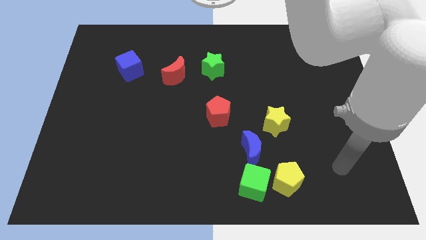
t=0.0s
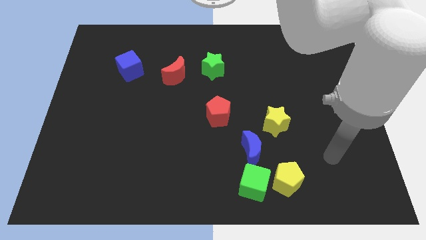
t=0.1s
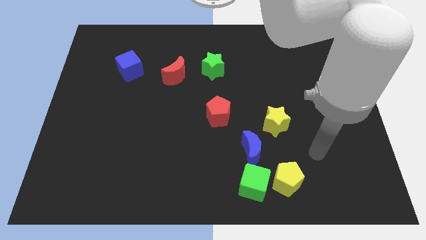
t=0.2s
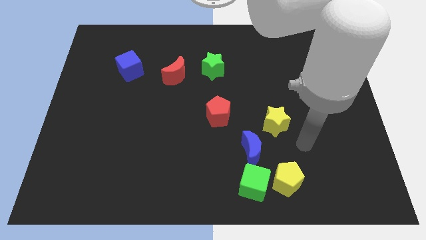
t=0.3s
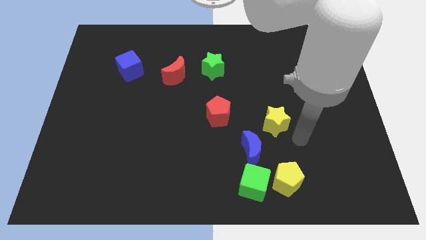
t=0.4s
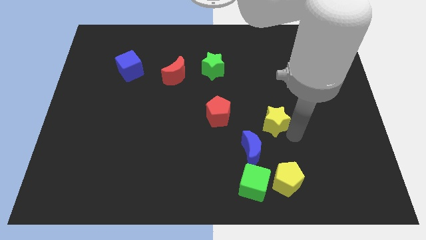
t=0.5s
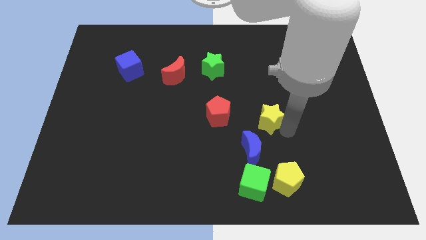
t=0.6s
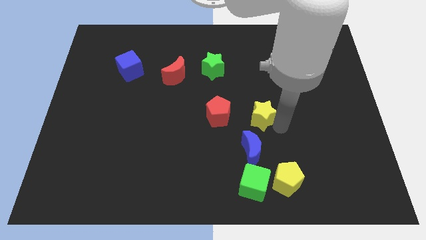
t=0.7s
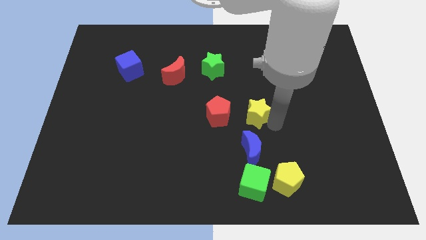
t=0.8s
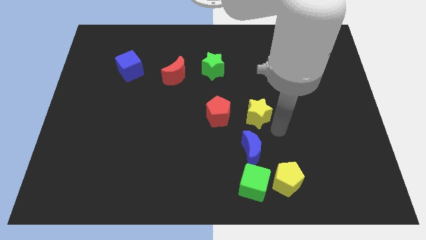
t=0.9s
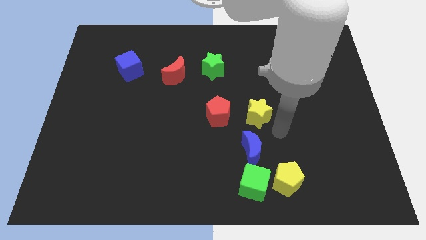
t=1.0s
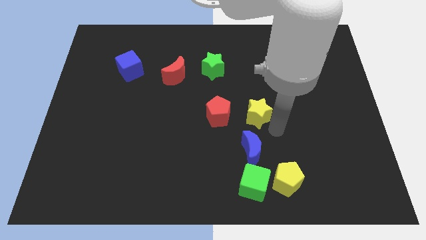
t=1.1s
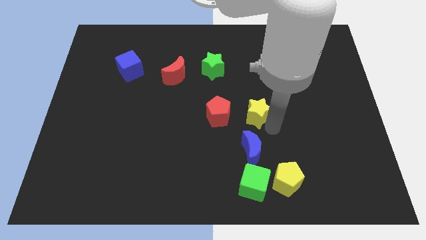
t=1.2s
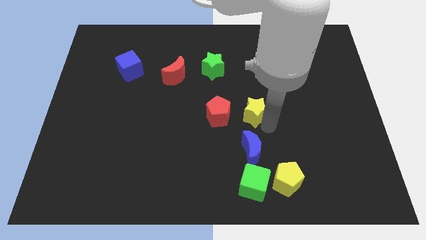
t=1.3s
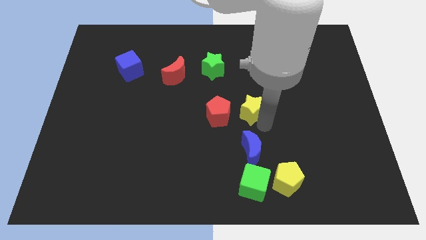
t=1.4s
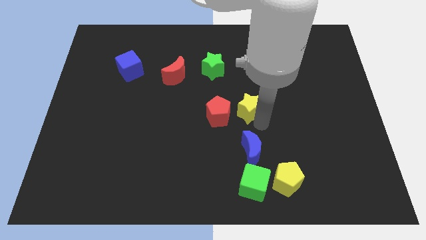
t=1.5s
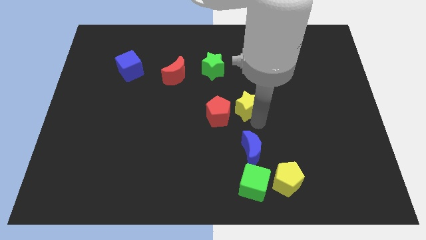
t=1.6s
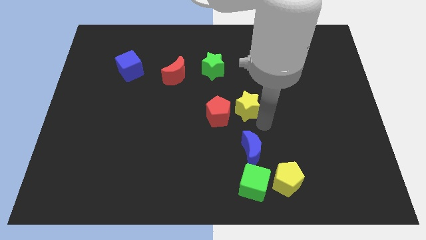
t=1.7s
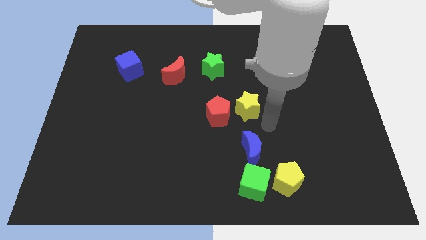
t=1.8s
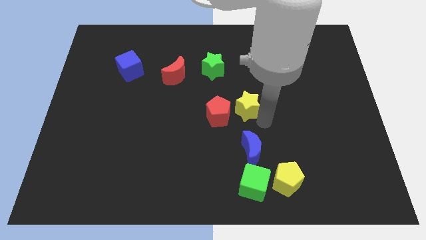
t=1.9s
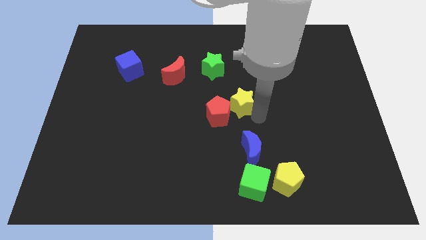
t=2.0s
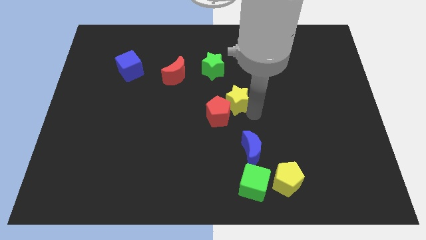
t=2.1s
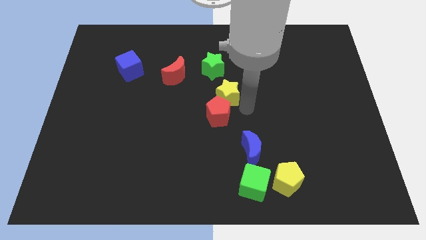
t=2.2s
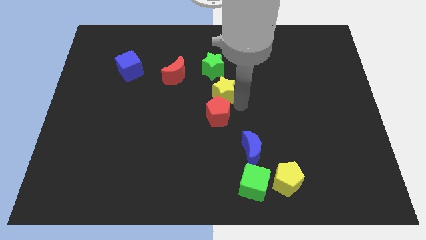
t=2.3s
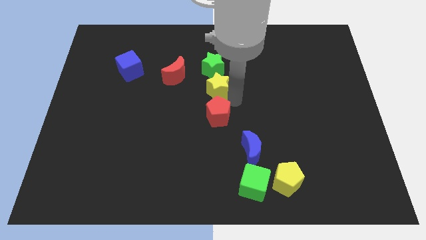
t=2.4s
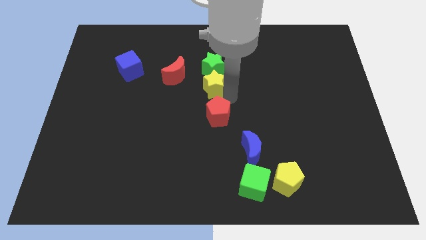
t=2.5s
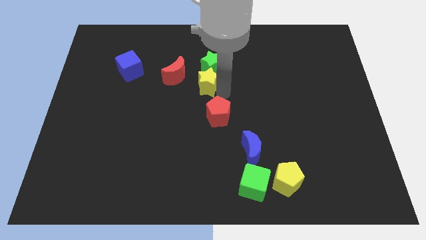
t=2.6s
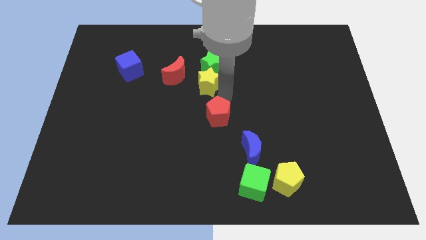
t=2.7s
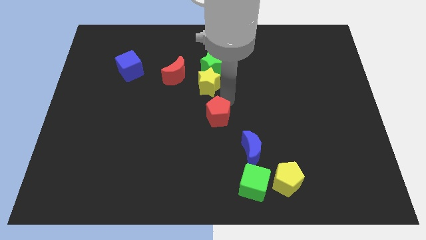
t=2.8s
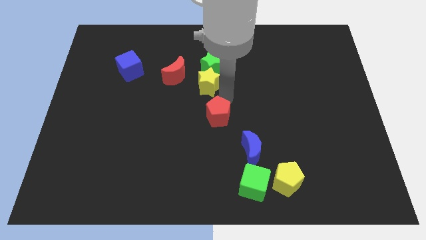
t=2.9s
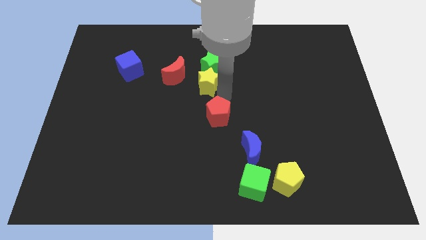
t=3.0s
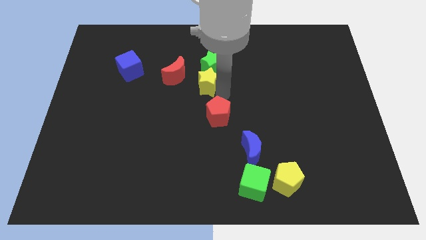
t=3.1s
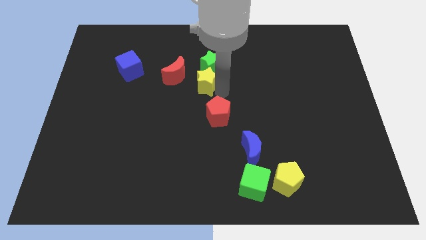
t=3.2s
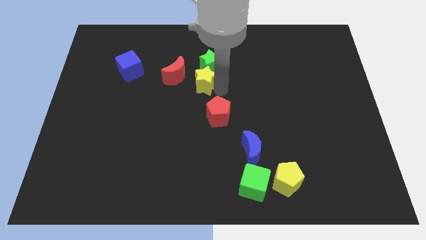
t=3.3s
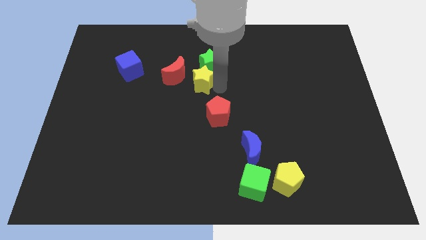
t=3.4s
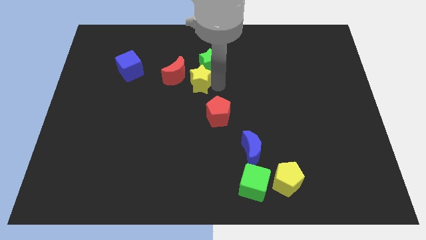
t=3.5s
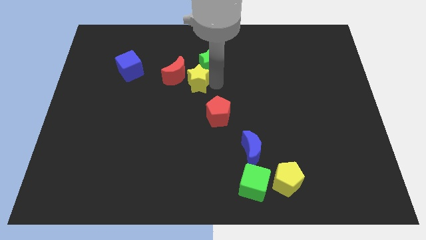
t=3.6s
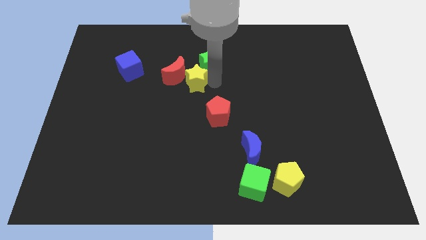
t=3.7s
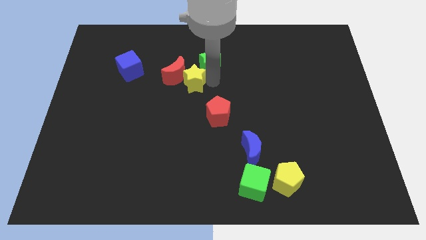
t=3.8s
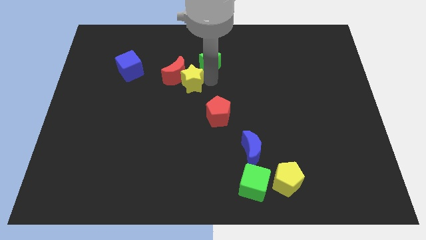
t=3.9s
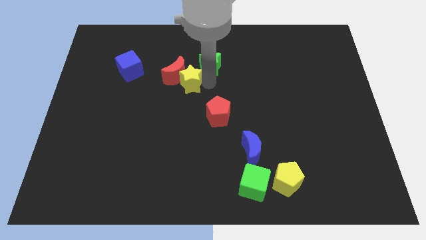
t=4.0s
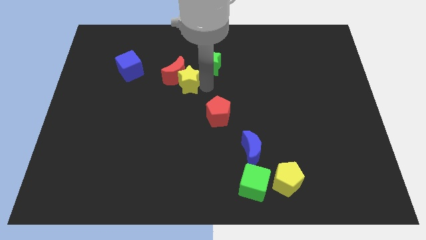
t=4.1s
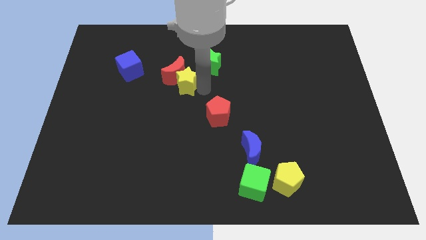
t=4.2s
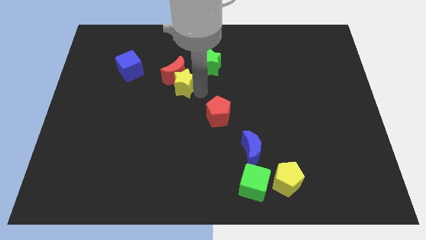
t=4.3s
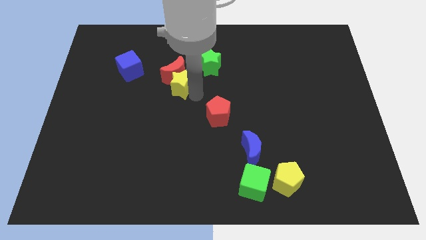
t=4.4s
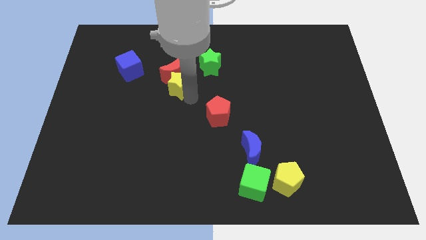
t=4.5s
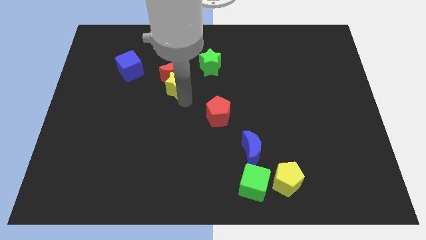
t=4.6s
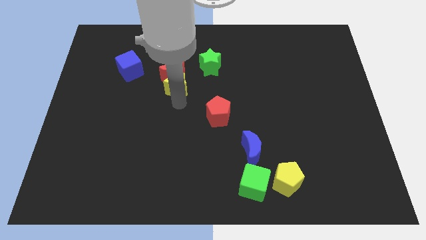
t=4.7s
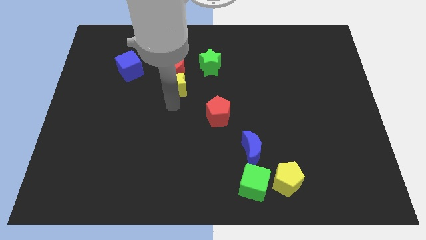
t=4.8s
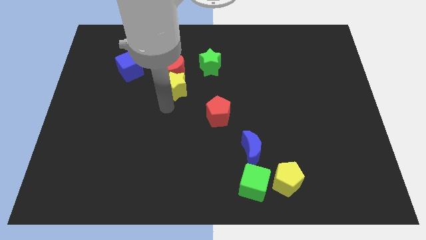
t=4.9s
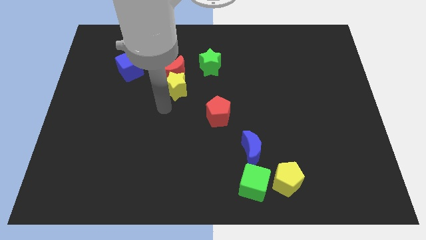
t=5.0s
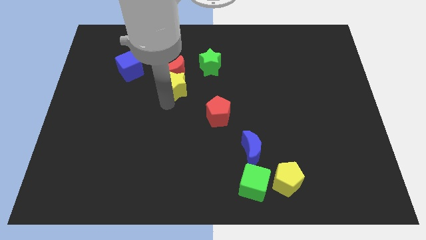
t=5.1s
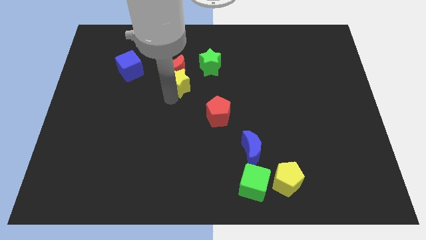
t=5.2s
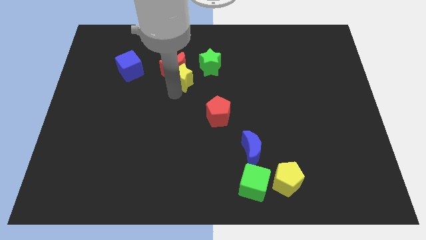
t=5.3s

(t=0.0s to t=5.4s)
move the yellow star right of the blue cube

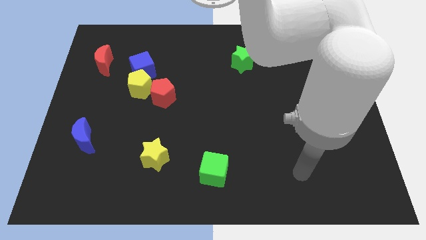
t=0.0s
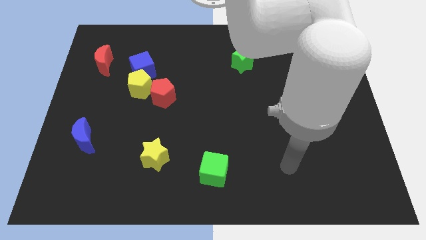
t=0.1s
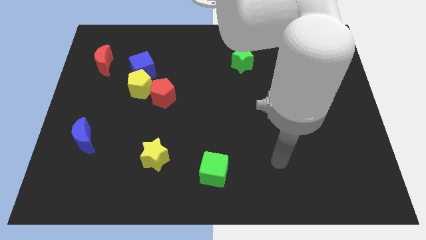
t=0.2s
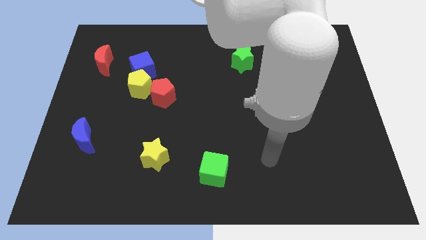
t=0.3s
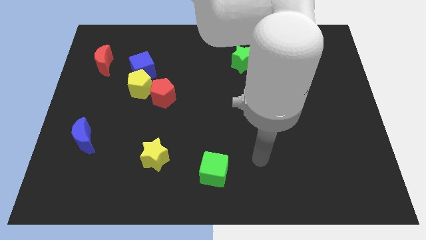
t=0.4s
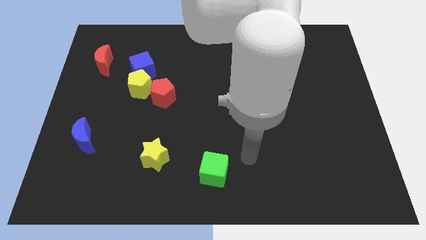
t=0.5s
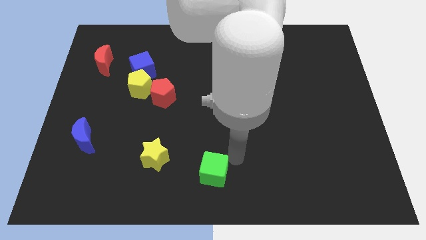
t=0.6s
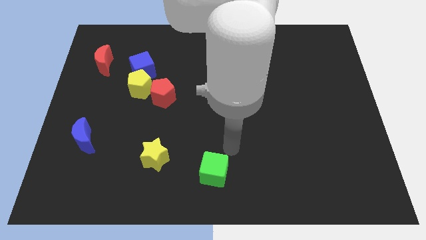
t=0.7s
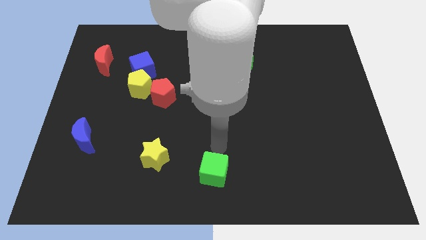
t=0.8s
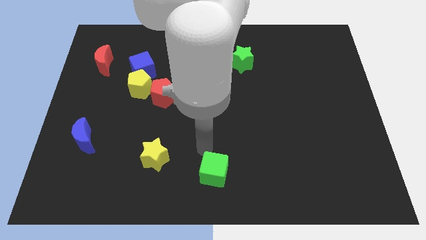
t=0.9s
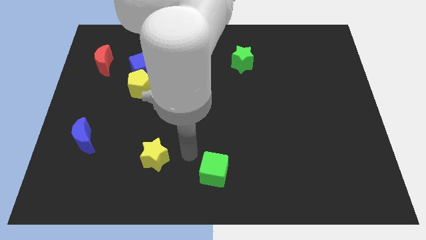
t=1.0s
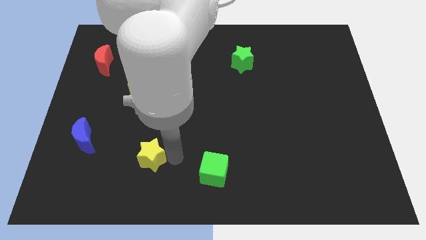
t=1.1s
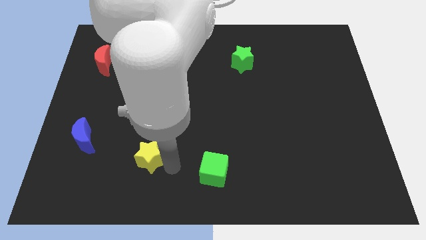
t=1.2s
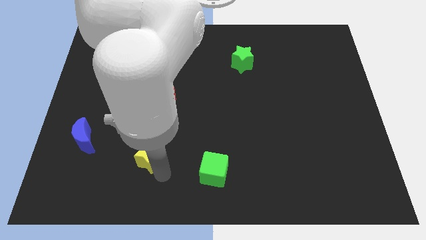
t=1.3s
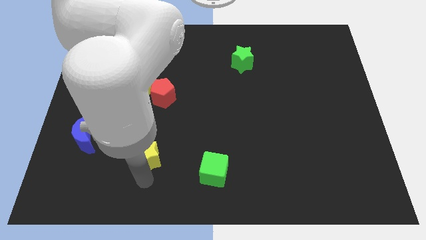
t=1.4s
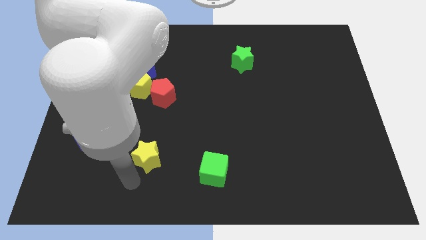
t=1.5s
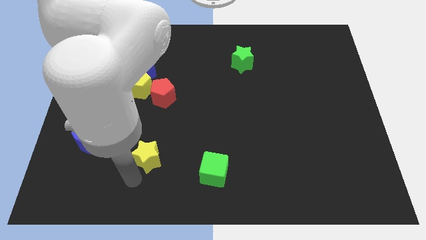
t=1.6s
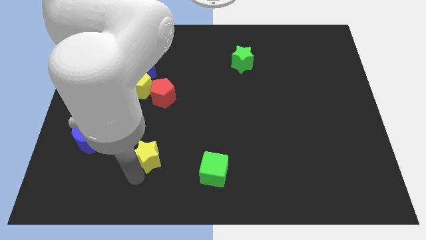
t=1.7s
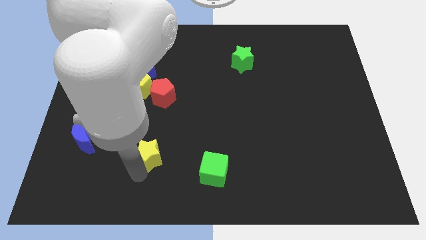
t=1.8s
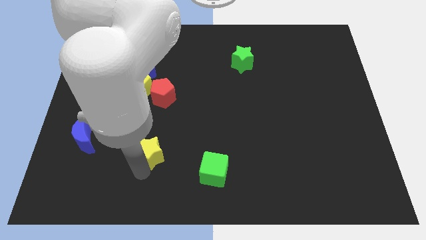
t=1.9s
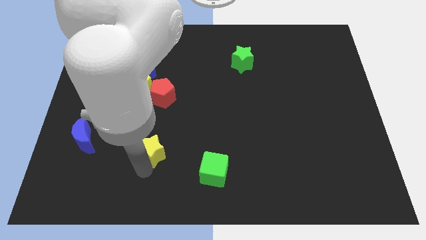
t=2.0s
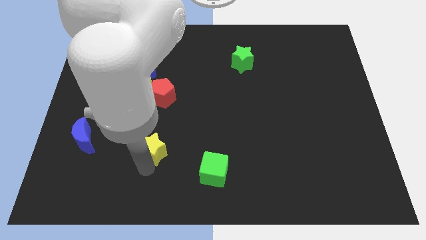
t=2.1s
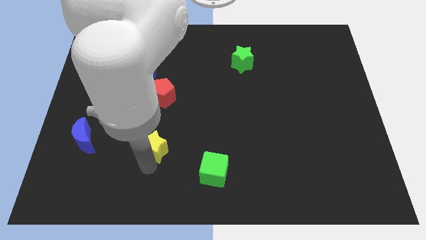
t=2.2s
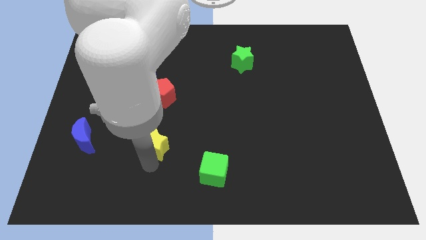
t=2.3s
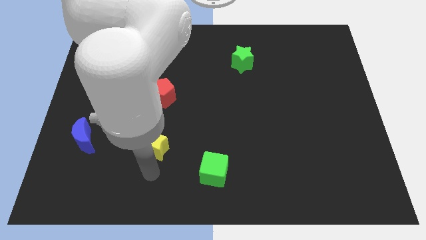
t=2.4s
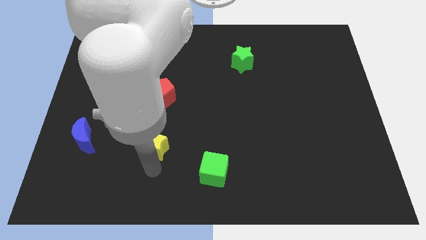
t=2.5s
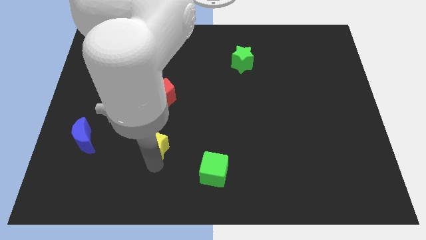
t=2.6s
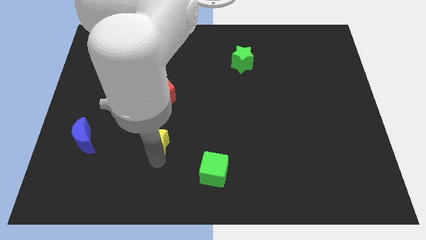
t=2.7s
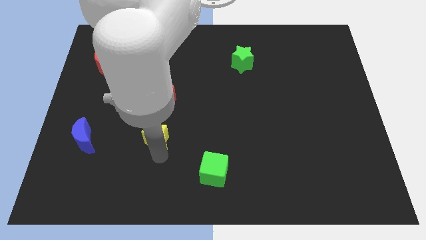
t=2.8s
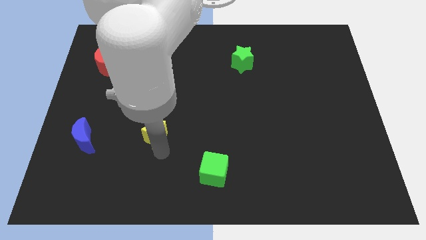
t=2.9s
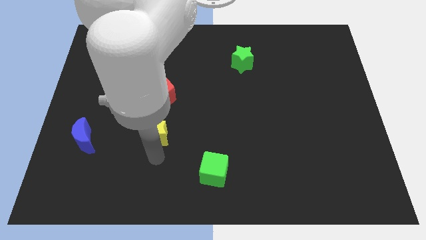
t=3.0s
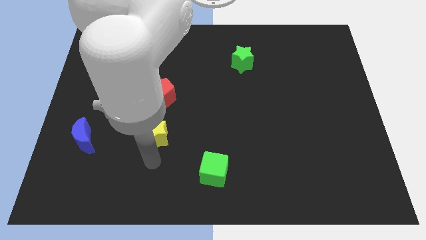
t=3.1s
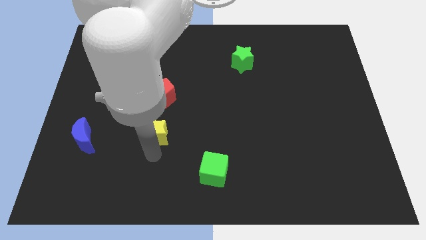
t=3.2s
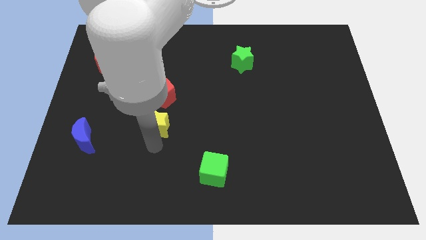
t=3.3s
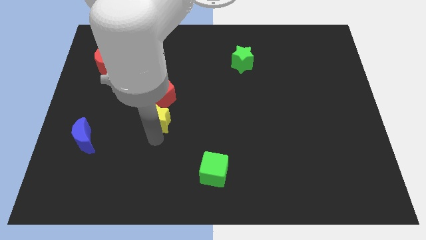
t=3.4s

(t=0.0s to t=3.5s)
move the yellow star to the bottom right of the yellow pentagon
